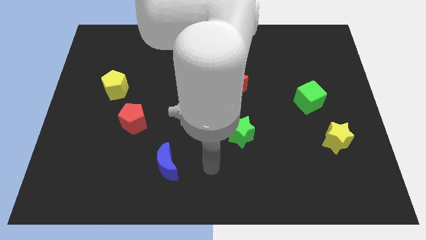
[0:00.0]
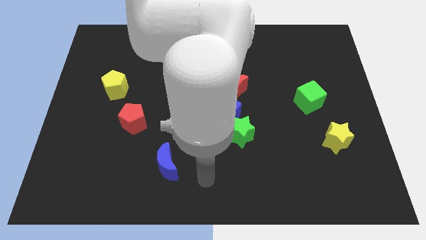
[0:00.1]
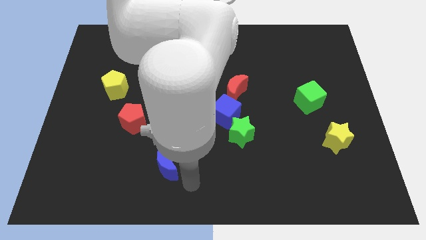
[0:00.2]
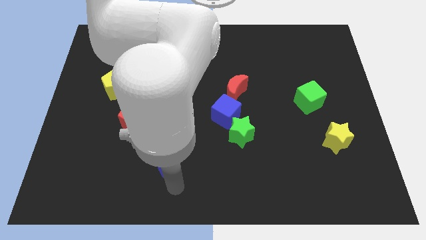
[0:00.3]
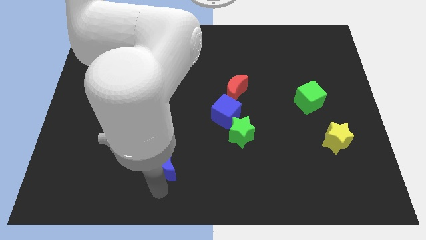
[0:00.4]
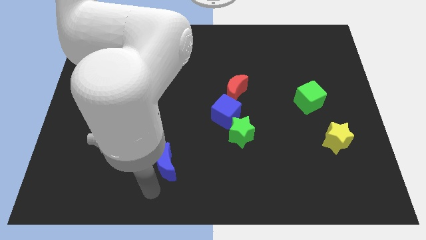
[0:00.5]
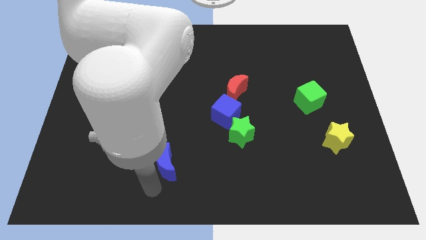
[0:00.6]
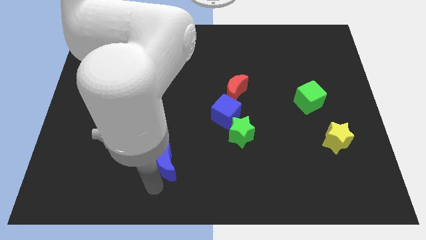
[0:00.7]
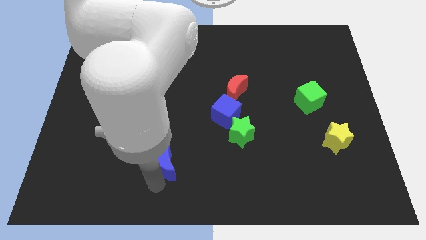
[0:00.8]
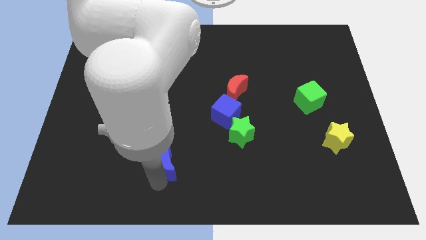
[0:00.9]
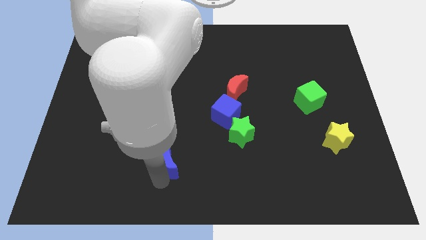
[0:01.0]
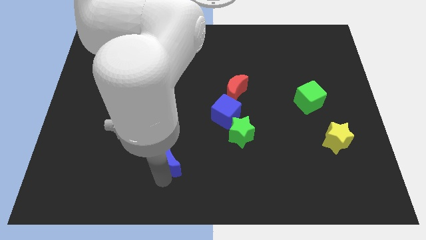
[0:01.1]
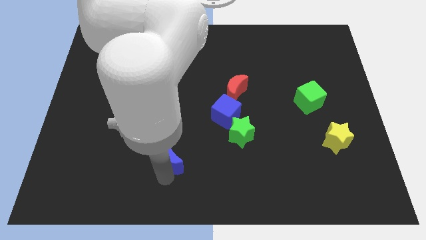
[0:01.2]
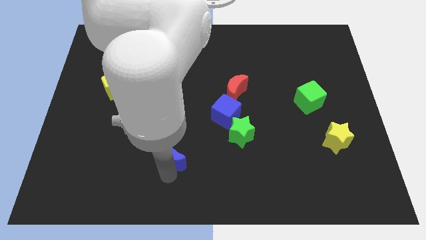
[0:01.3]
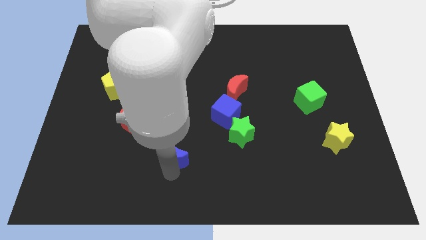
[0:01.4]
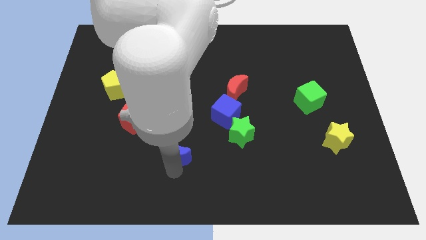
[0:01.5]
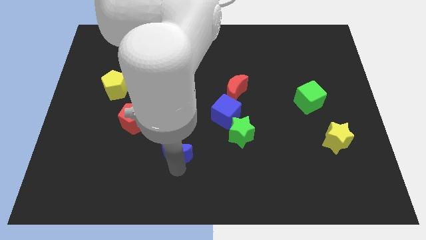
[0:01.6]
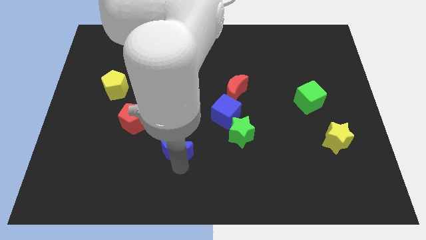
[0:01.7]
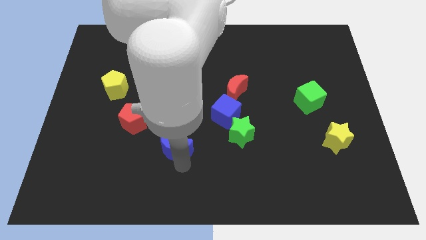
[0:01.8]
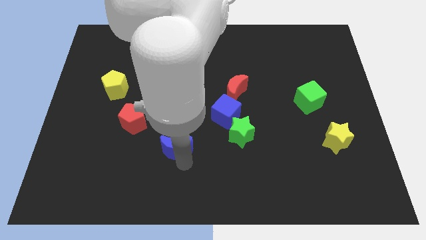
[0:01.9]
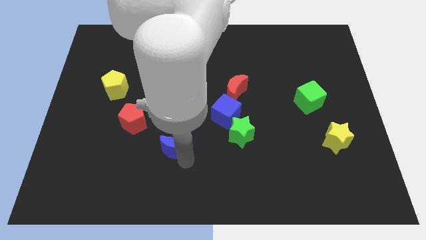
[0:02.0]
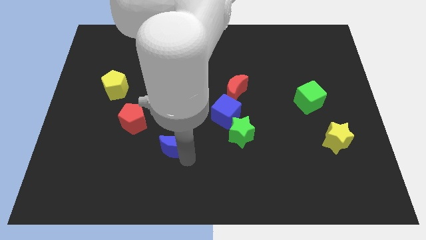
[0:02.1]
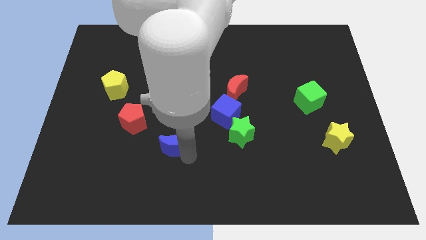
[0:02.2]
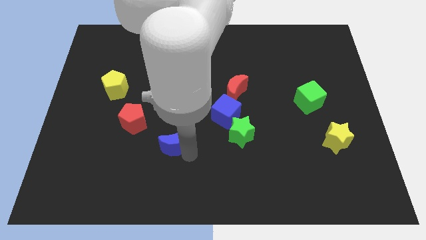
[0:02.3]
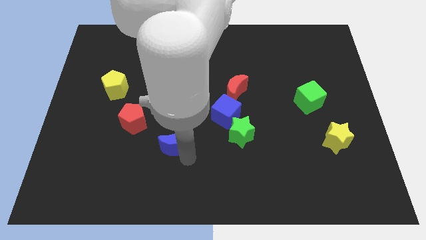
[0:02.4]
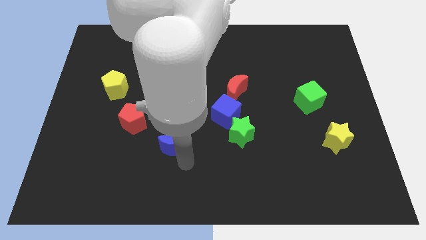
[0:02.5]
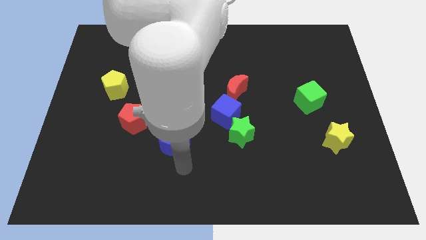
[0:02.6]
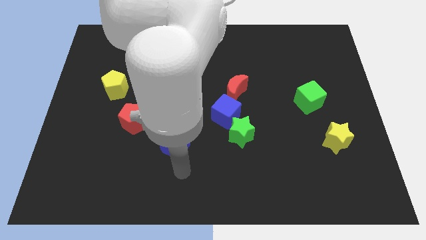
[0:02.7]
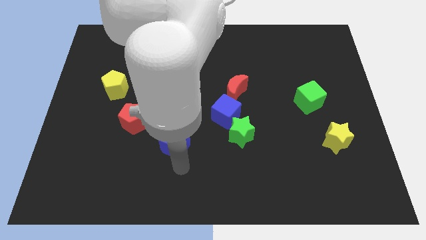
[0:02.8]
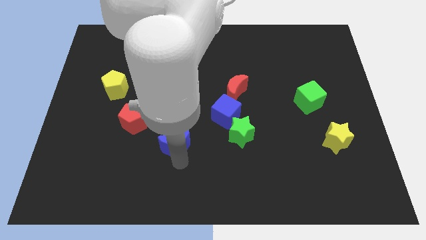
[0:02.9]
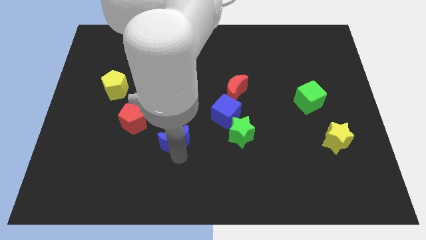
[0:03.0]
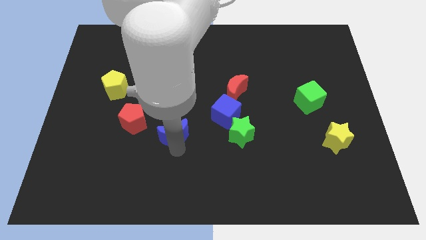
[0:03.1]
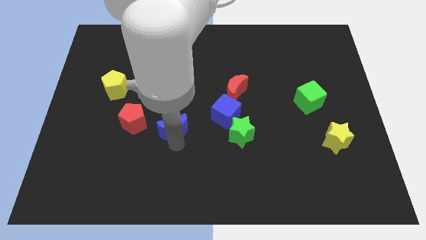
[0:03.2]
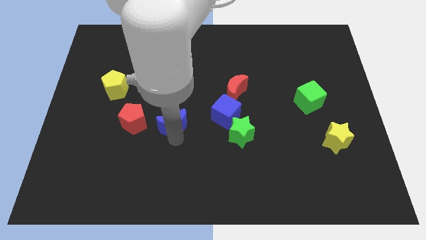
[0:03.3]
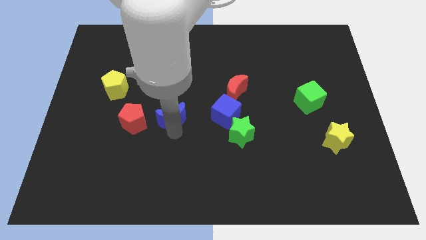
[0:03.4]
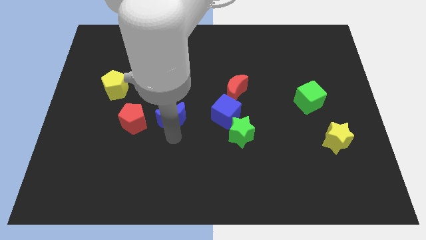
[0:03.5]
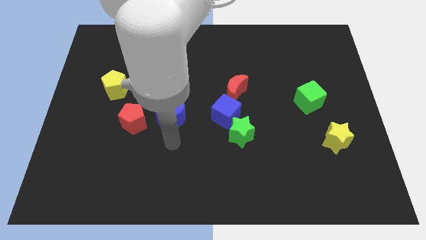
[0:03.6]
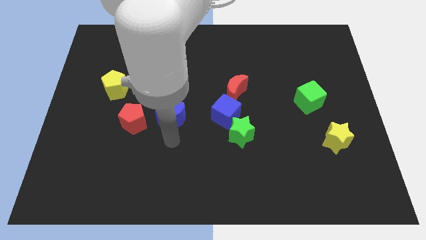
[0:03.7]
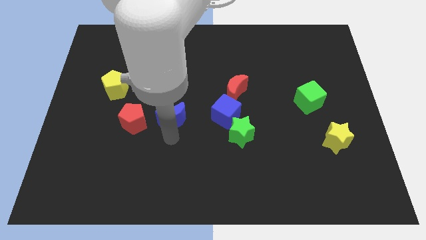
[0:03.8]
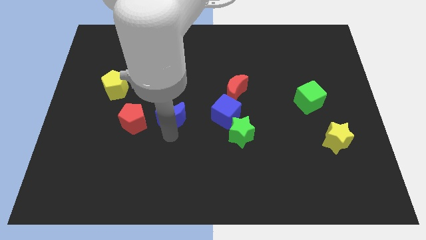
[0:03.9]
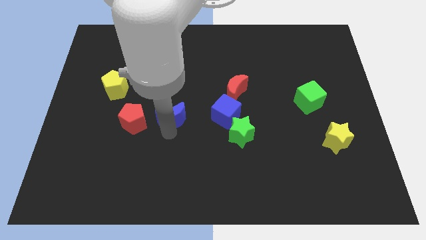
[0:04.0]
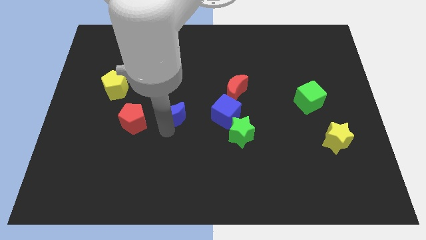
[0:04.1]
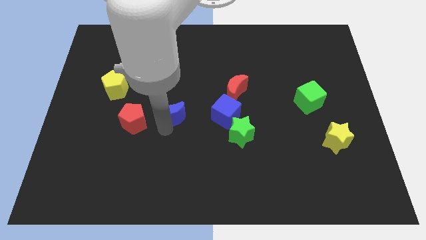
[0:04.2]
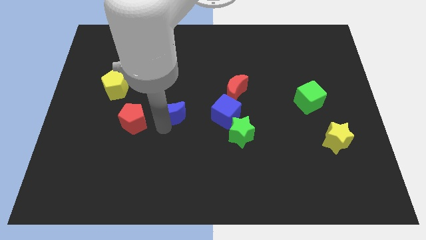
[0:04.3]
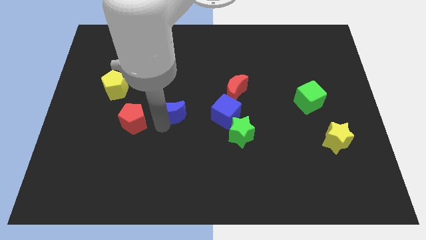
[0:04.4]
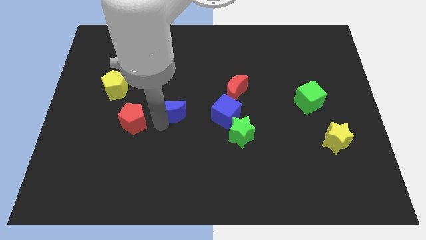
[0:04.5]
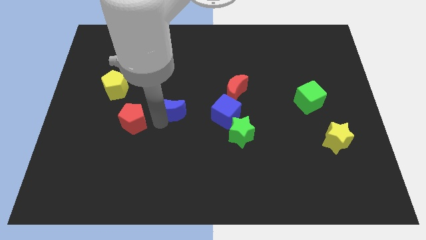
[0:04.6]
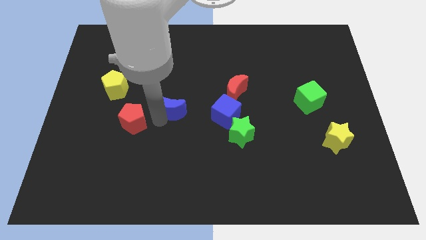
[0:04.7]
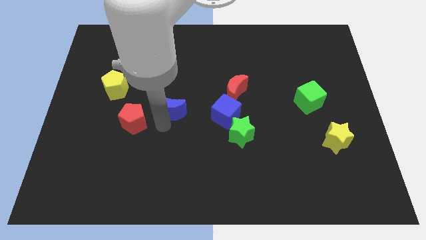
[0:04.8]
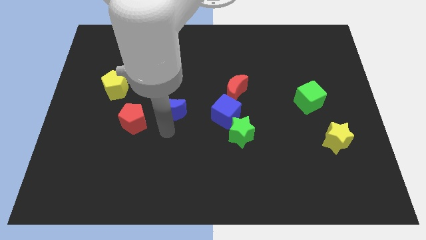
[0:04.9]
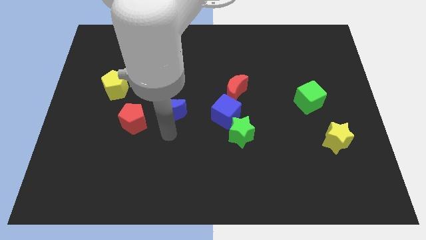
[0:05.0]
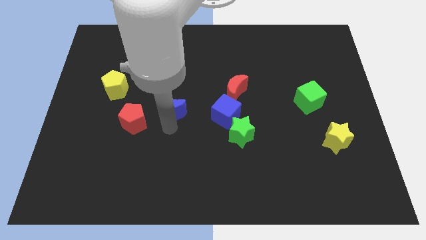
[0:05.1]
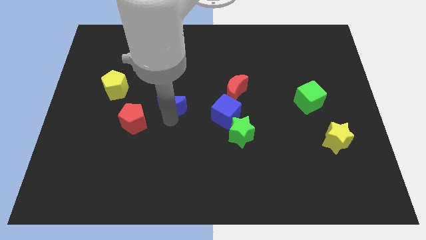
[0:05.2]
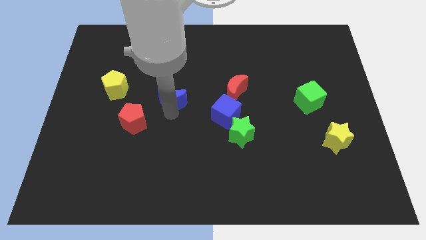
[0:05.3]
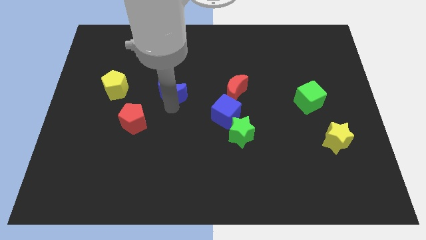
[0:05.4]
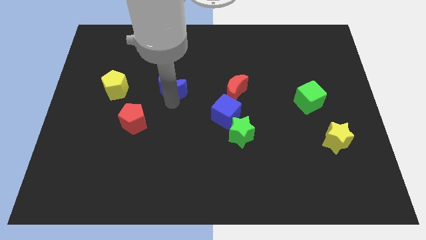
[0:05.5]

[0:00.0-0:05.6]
push the blue moon upwards

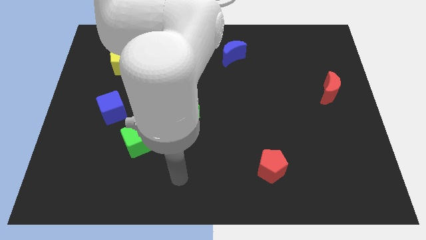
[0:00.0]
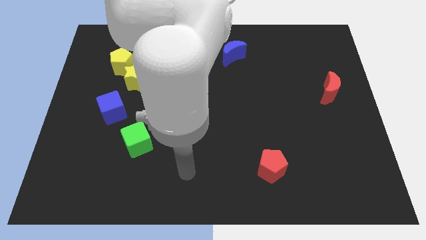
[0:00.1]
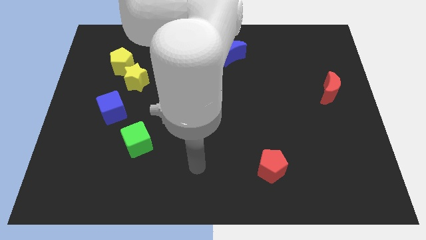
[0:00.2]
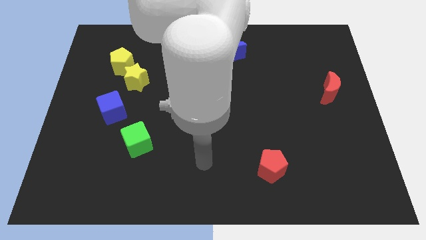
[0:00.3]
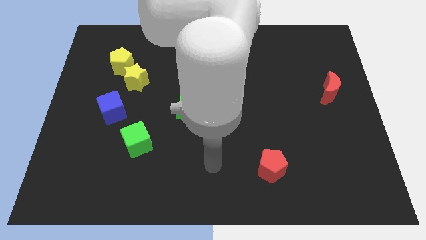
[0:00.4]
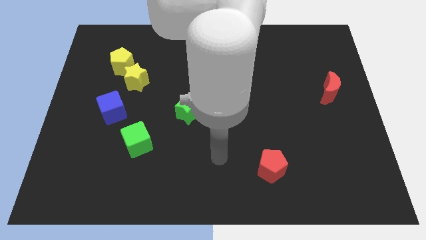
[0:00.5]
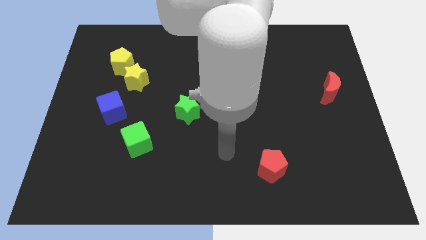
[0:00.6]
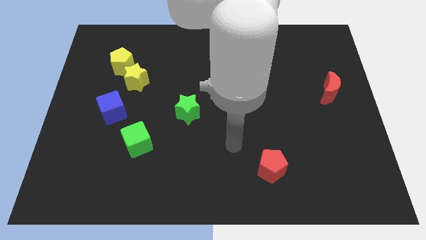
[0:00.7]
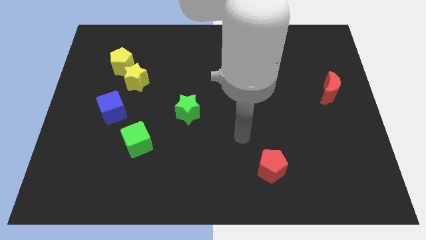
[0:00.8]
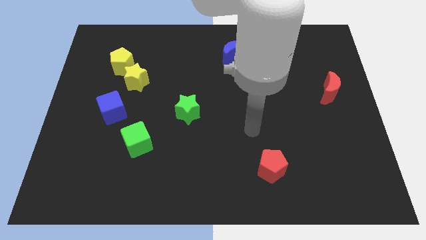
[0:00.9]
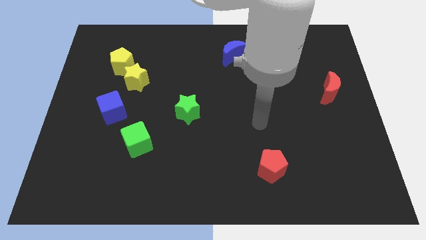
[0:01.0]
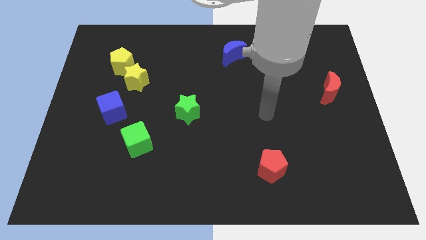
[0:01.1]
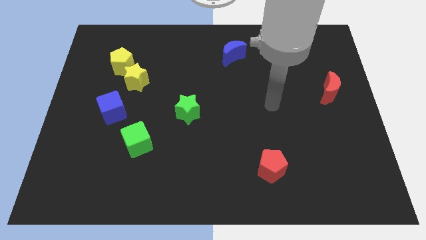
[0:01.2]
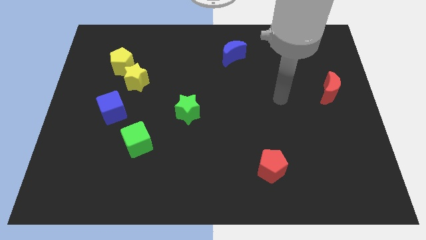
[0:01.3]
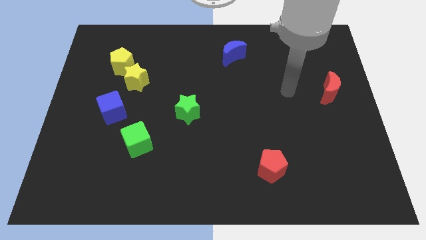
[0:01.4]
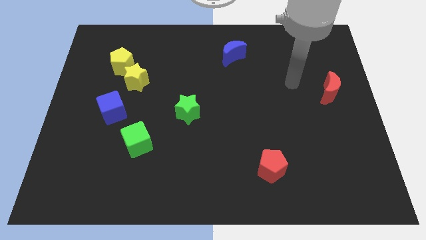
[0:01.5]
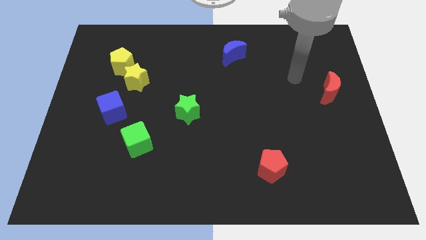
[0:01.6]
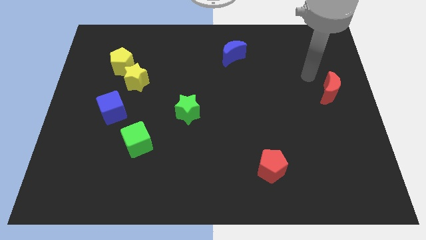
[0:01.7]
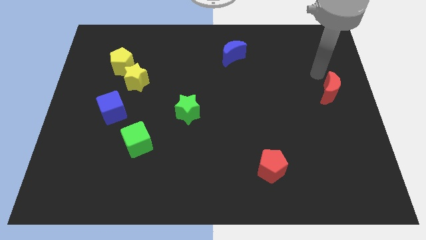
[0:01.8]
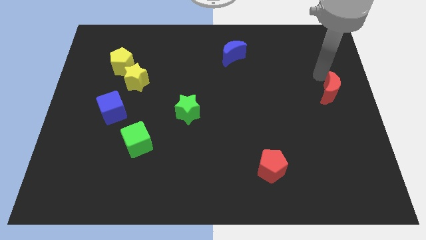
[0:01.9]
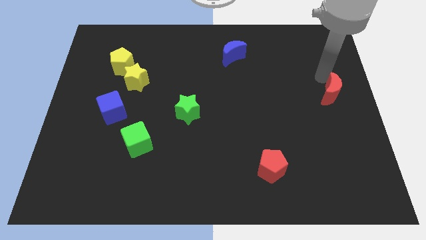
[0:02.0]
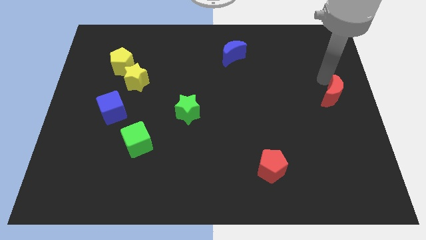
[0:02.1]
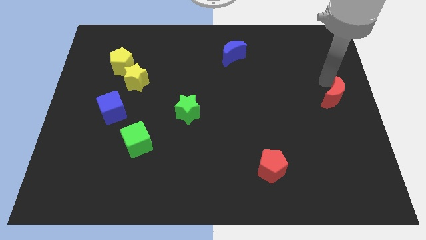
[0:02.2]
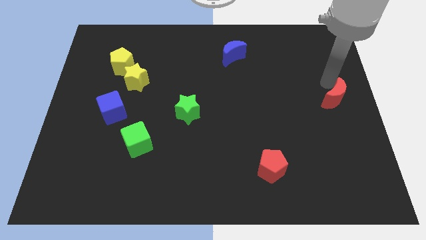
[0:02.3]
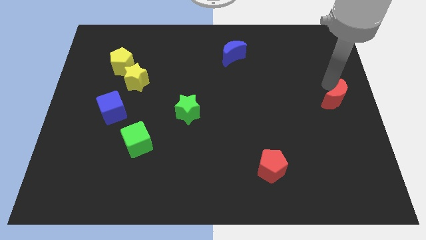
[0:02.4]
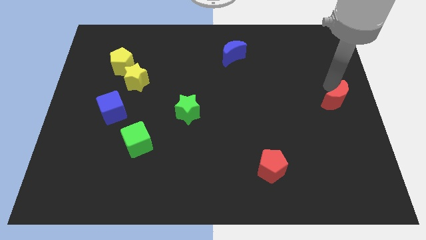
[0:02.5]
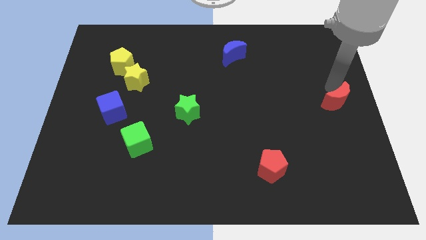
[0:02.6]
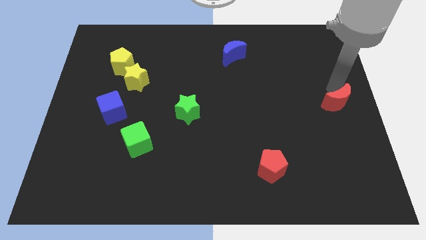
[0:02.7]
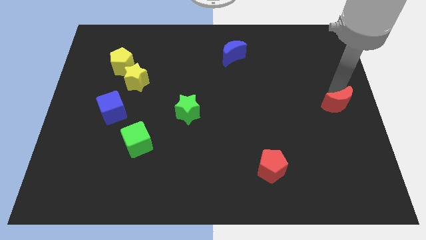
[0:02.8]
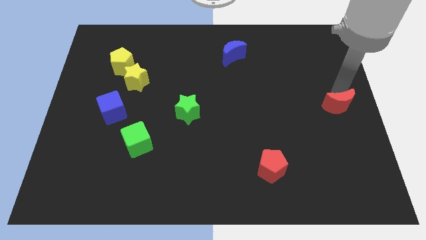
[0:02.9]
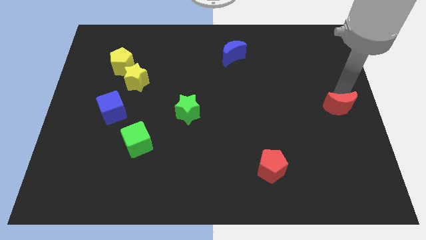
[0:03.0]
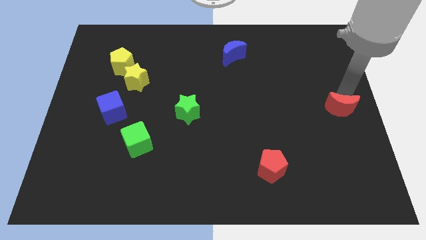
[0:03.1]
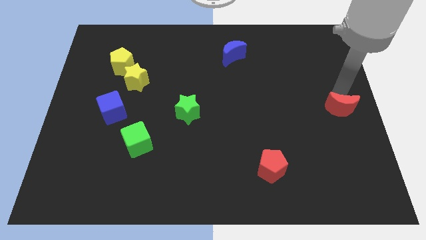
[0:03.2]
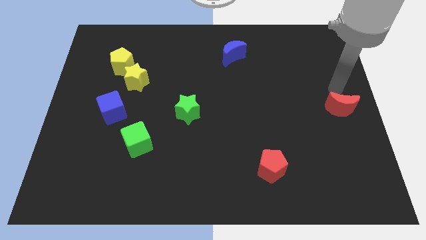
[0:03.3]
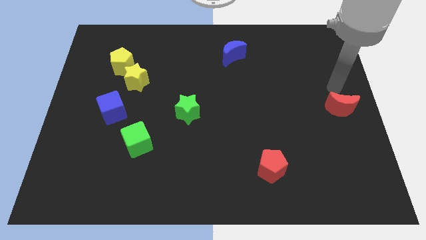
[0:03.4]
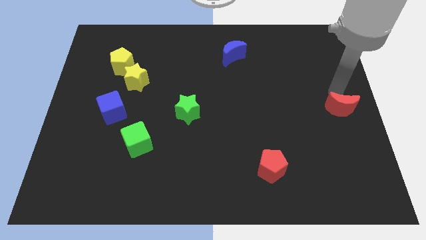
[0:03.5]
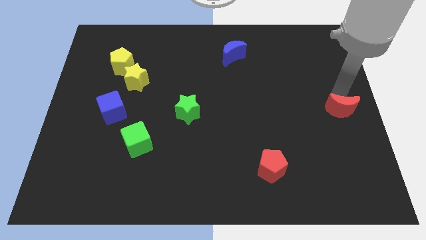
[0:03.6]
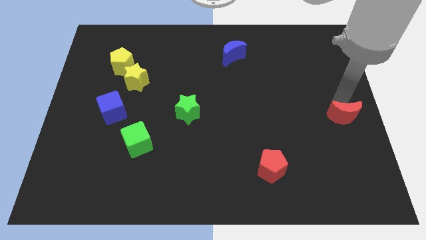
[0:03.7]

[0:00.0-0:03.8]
slightly move the red moon downwards
